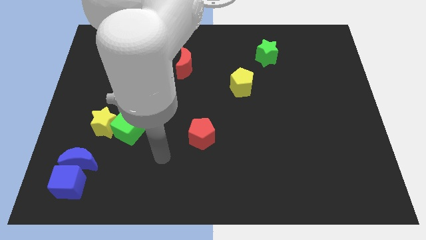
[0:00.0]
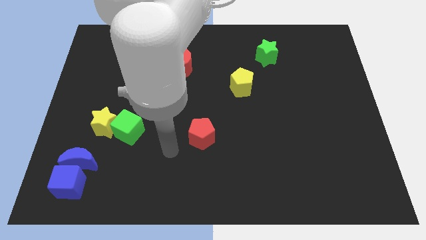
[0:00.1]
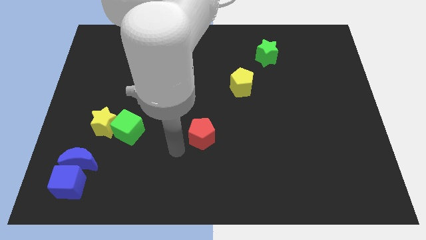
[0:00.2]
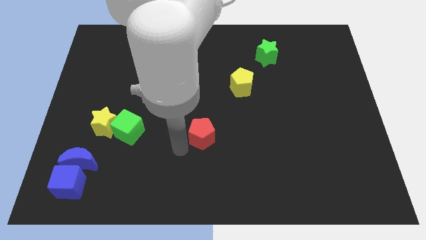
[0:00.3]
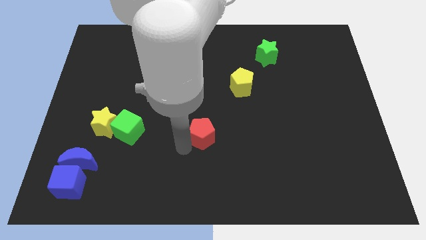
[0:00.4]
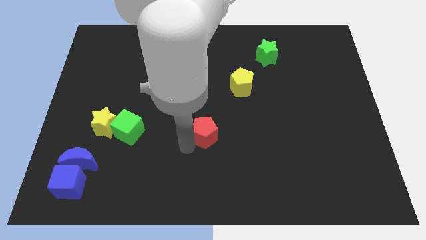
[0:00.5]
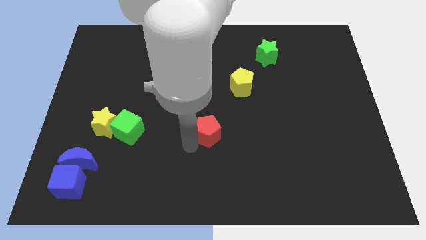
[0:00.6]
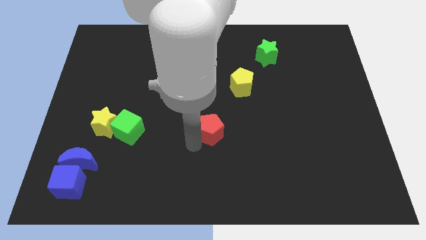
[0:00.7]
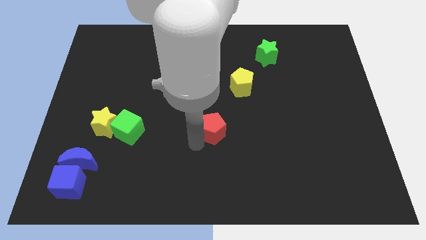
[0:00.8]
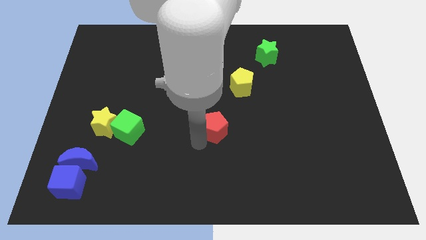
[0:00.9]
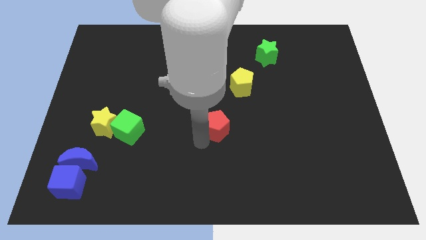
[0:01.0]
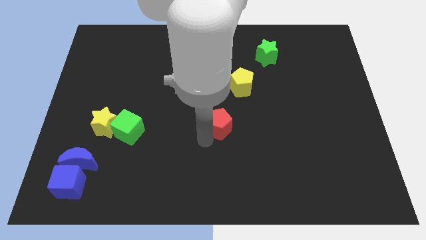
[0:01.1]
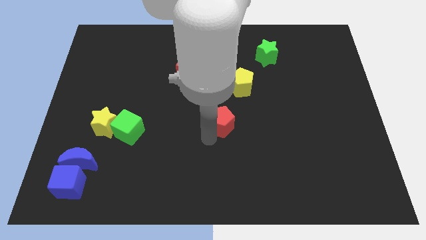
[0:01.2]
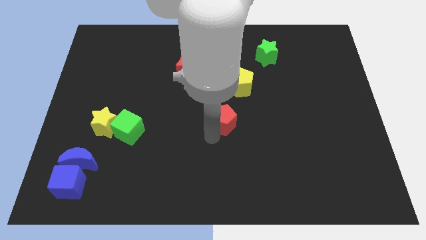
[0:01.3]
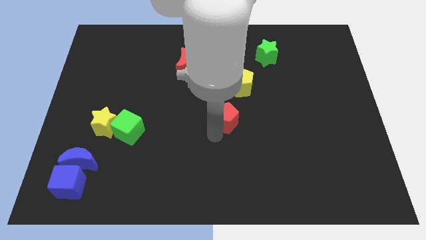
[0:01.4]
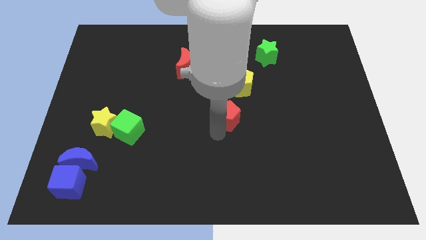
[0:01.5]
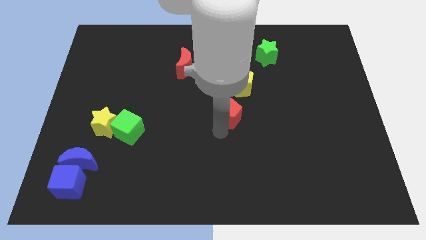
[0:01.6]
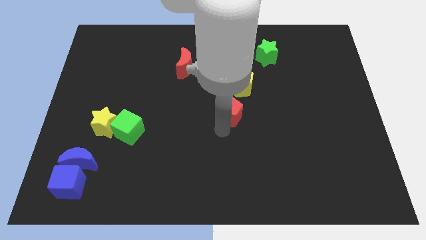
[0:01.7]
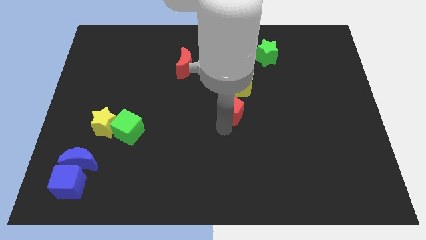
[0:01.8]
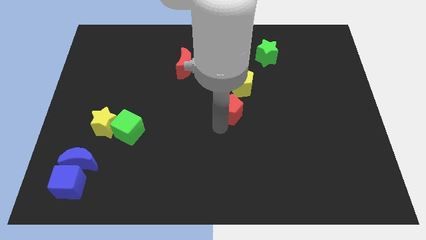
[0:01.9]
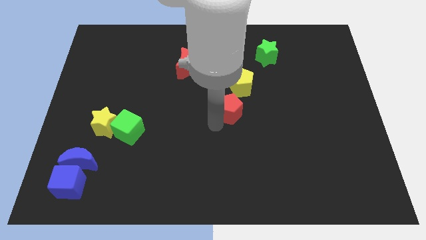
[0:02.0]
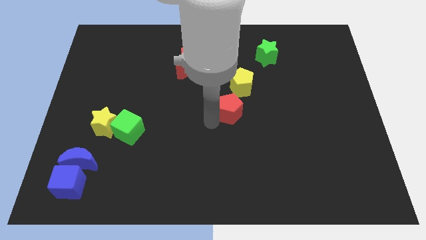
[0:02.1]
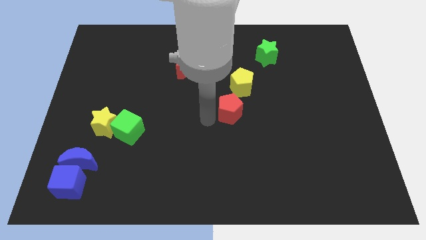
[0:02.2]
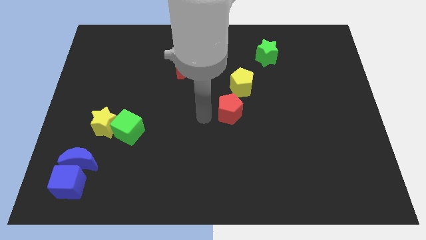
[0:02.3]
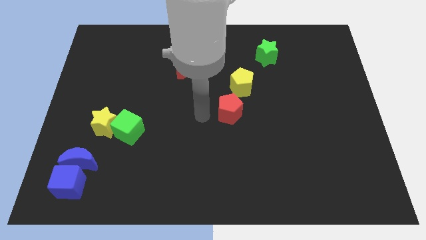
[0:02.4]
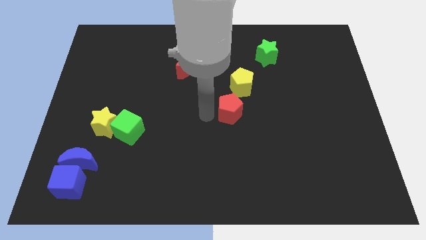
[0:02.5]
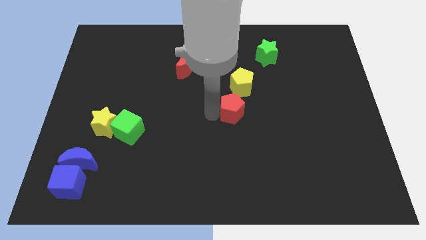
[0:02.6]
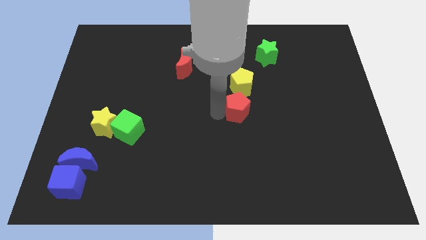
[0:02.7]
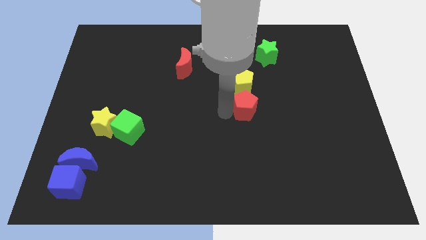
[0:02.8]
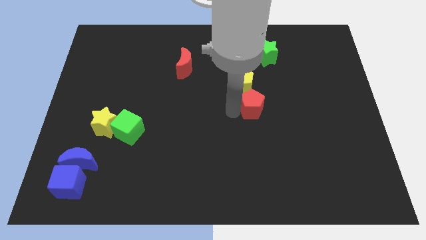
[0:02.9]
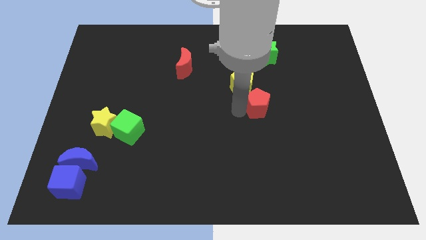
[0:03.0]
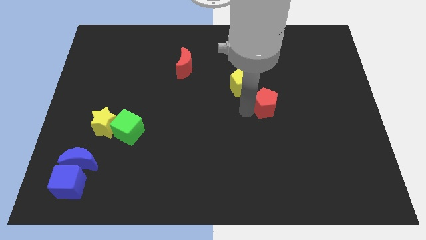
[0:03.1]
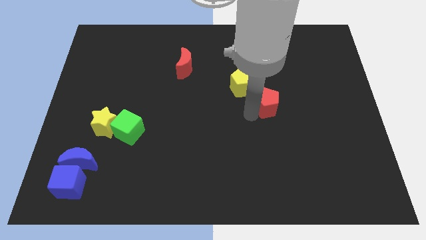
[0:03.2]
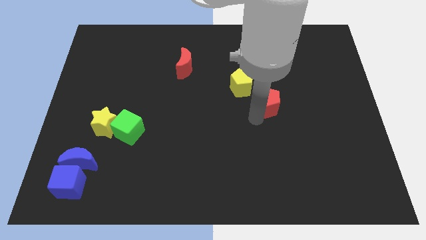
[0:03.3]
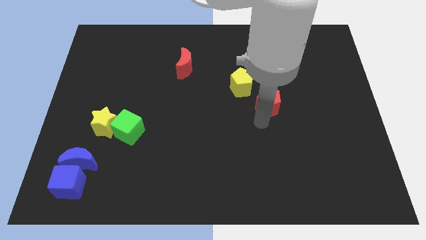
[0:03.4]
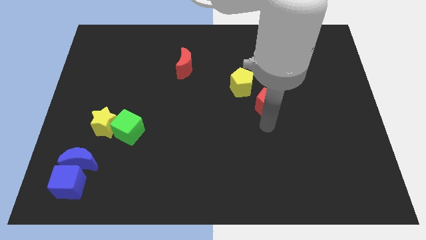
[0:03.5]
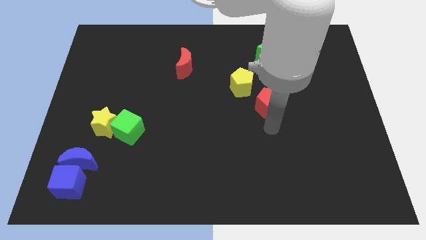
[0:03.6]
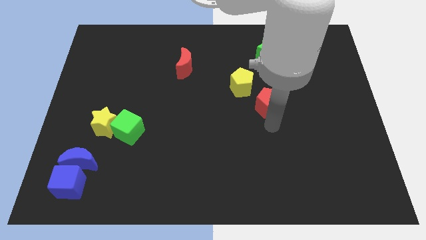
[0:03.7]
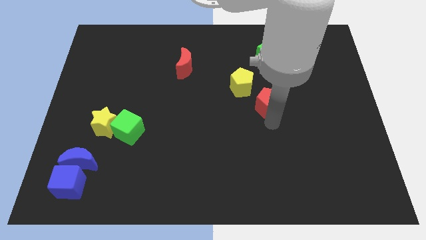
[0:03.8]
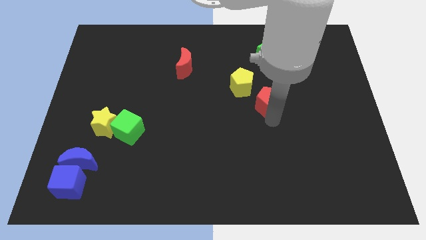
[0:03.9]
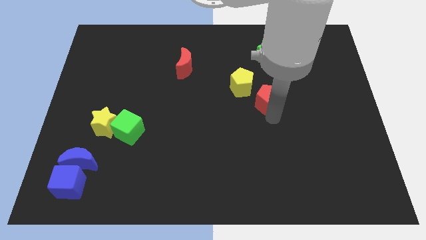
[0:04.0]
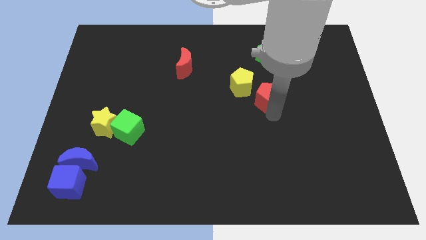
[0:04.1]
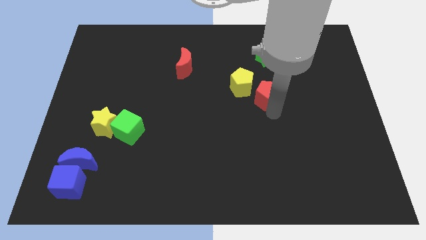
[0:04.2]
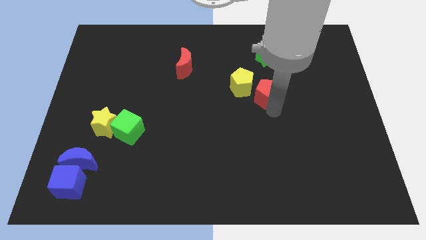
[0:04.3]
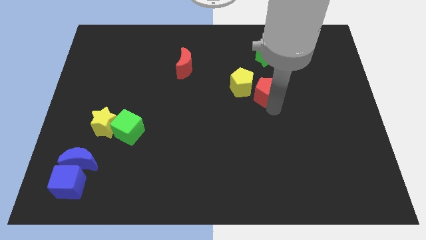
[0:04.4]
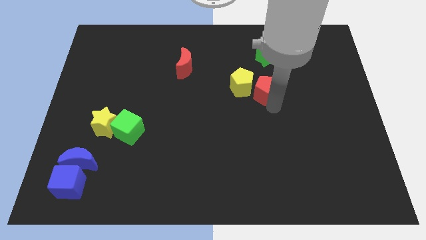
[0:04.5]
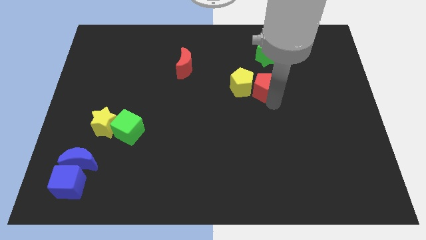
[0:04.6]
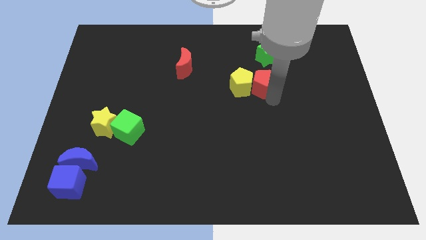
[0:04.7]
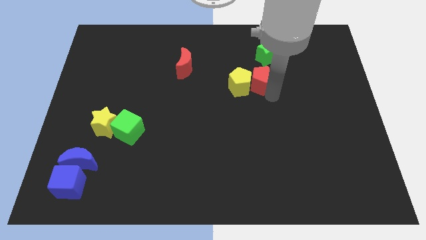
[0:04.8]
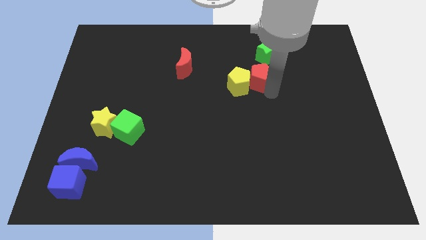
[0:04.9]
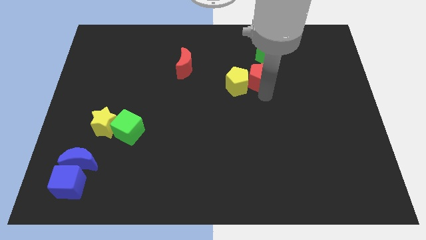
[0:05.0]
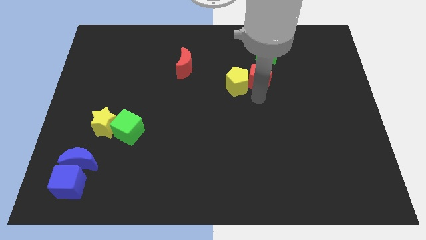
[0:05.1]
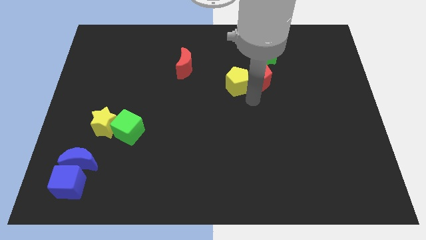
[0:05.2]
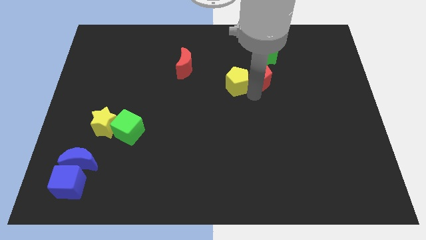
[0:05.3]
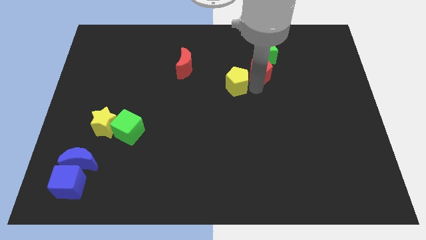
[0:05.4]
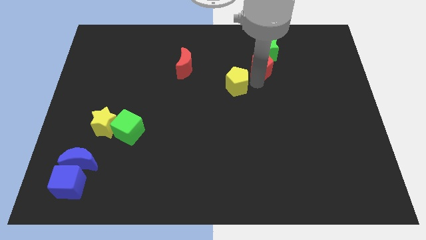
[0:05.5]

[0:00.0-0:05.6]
push the red pentagon to the green star

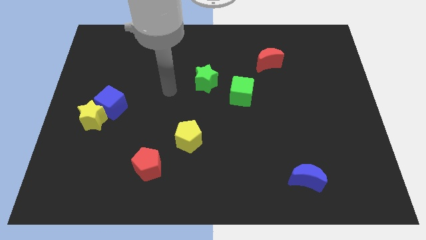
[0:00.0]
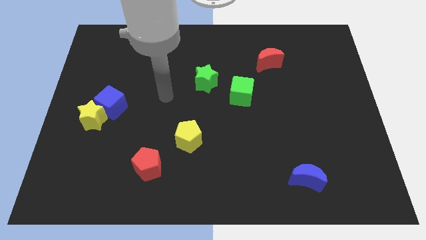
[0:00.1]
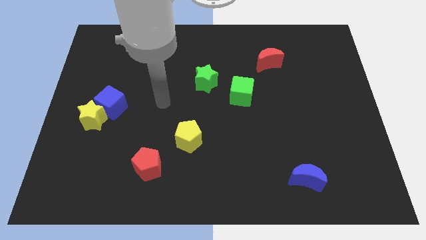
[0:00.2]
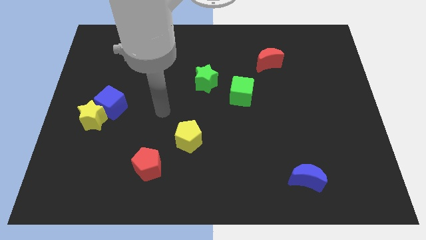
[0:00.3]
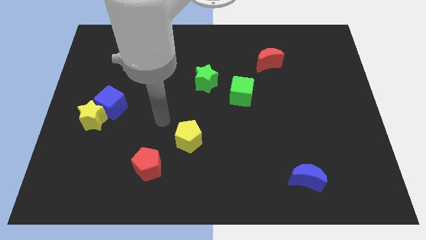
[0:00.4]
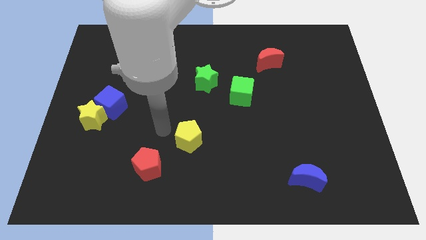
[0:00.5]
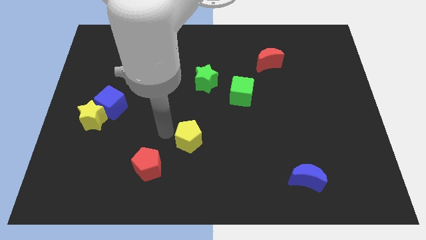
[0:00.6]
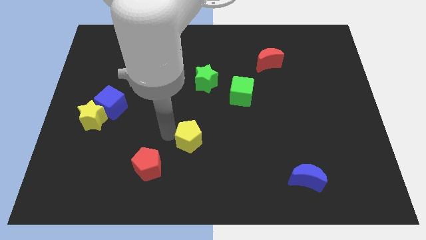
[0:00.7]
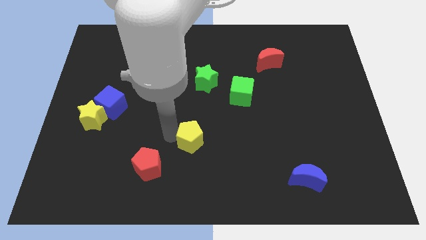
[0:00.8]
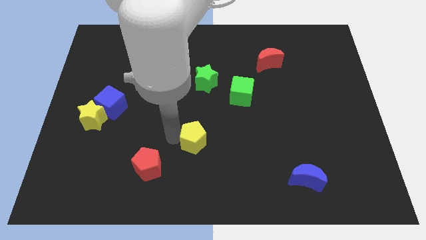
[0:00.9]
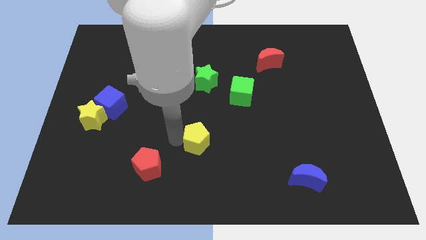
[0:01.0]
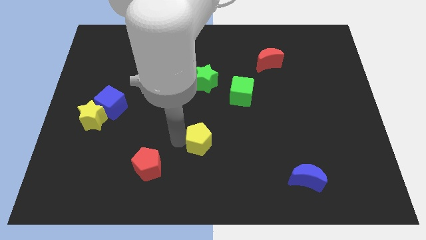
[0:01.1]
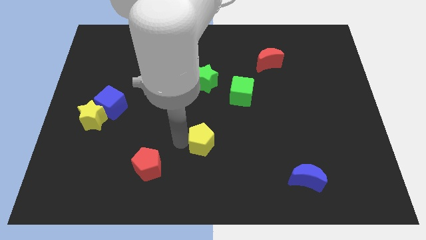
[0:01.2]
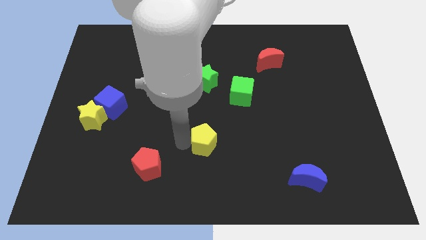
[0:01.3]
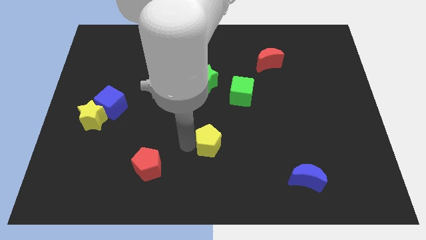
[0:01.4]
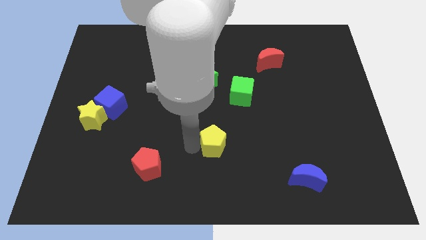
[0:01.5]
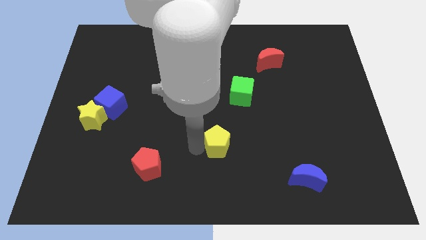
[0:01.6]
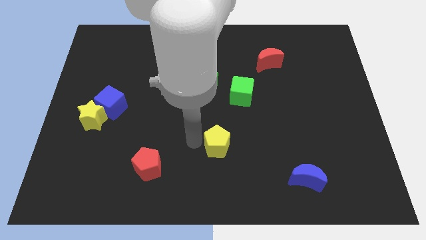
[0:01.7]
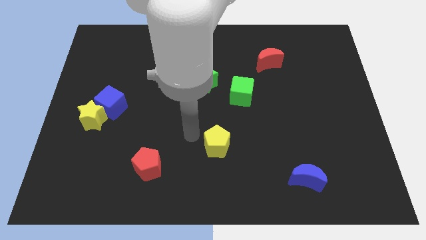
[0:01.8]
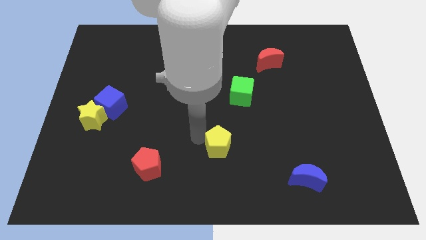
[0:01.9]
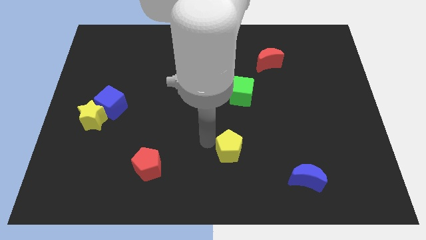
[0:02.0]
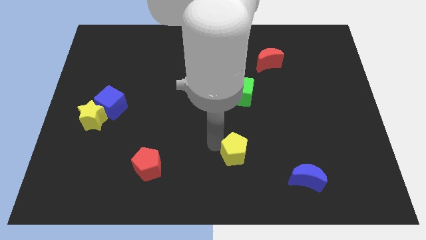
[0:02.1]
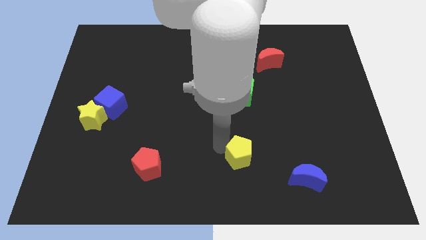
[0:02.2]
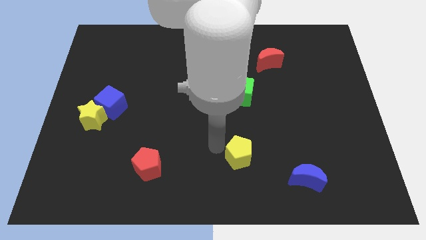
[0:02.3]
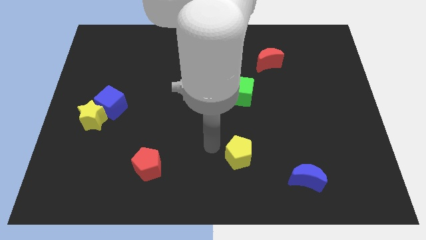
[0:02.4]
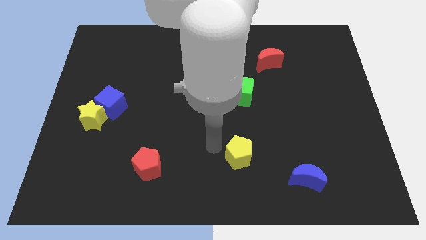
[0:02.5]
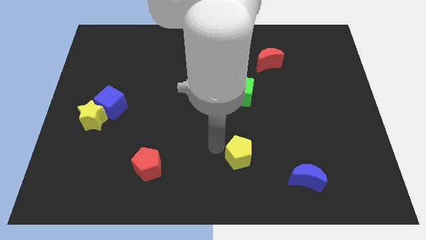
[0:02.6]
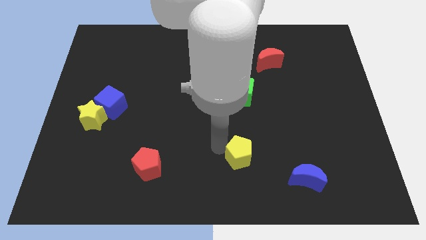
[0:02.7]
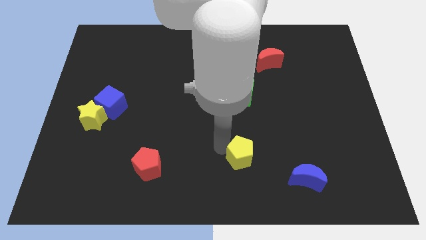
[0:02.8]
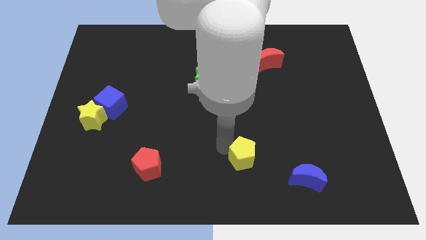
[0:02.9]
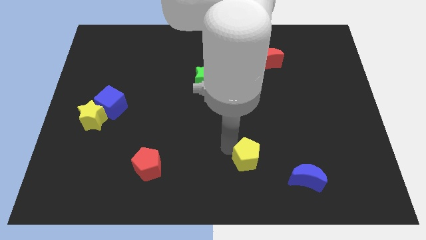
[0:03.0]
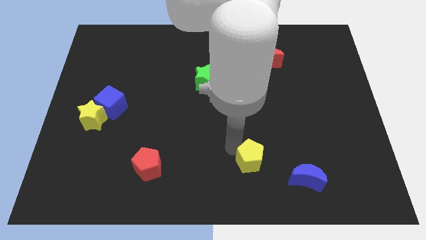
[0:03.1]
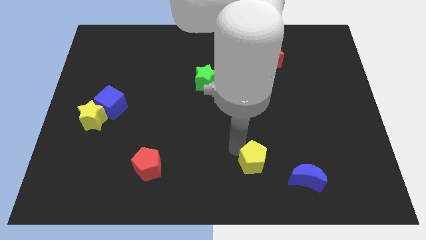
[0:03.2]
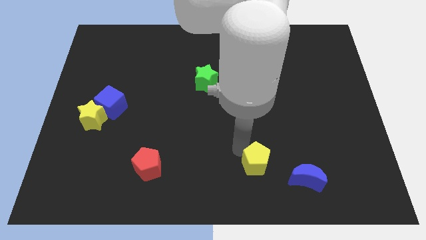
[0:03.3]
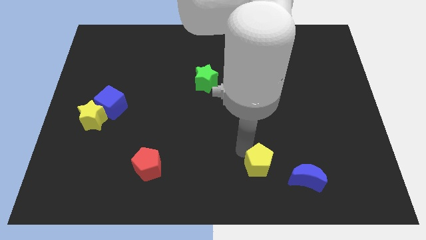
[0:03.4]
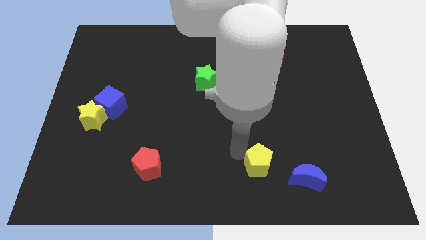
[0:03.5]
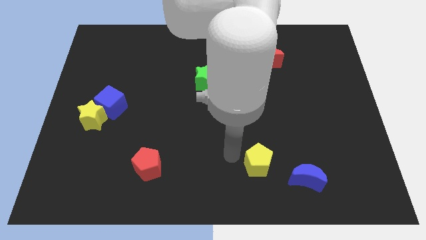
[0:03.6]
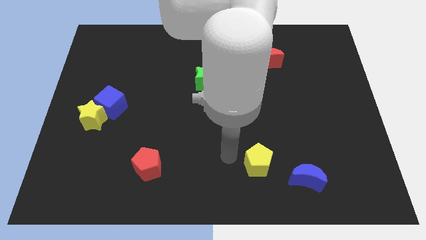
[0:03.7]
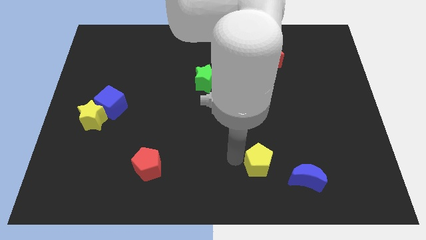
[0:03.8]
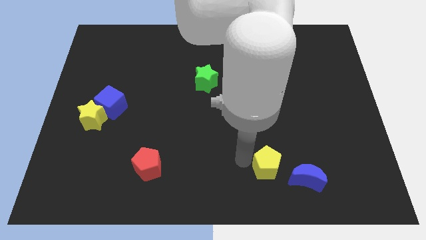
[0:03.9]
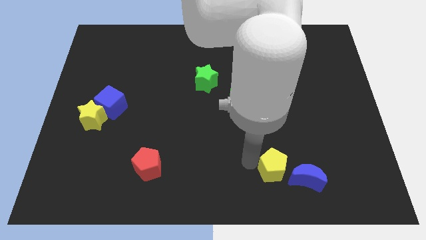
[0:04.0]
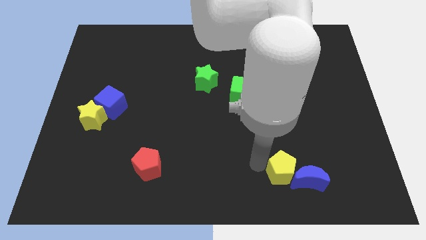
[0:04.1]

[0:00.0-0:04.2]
move the yellow pentagon towards the blue moon
